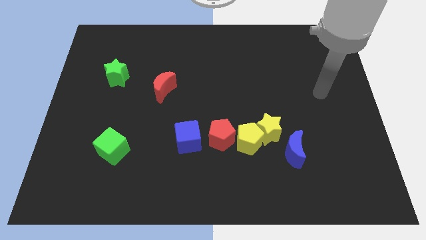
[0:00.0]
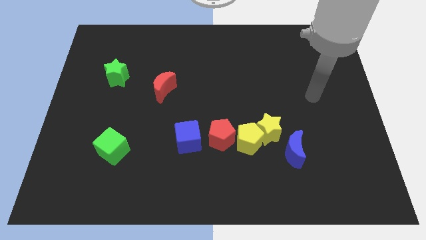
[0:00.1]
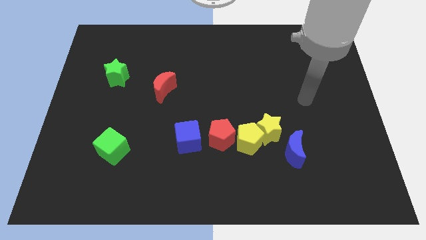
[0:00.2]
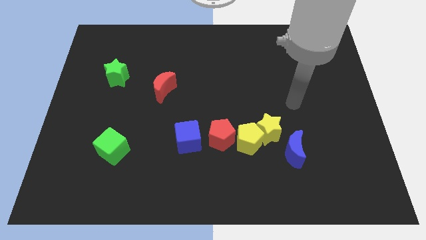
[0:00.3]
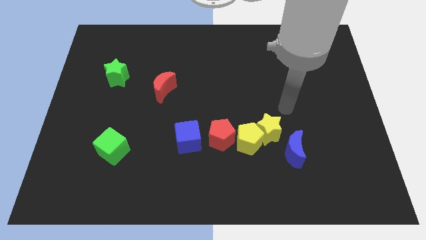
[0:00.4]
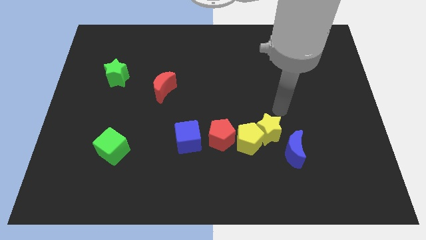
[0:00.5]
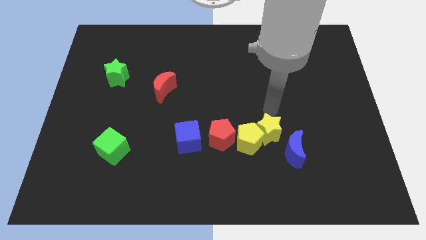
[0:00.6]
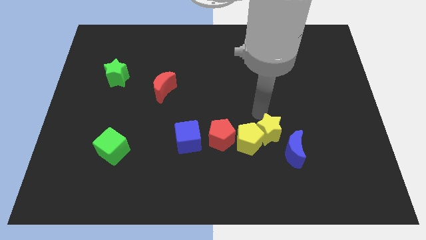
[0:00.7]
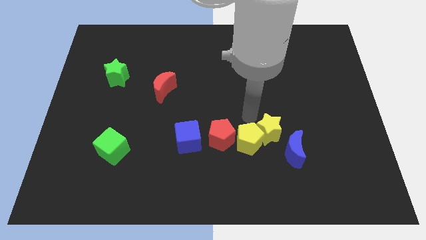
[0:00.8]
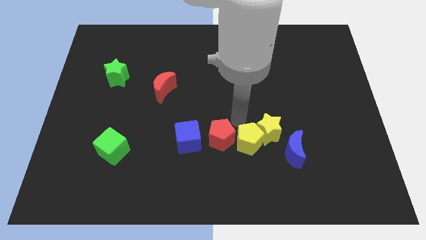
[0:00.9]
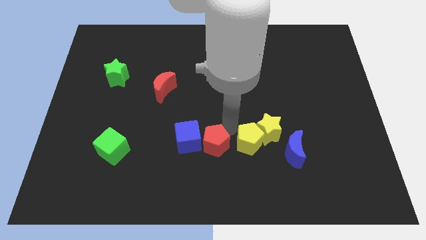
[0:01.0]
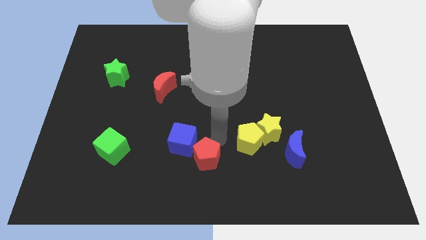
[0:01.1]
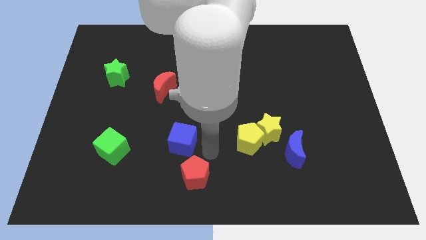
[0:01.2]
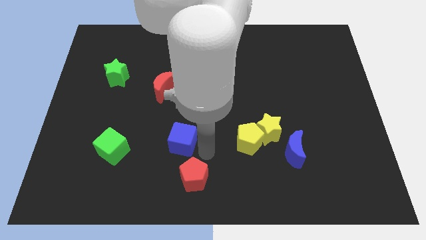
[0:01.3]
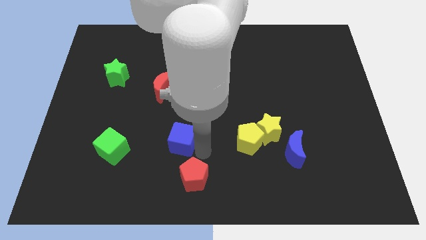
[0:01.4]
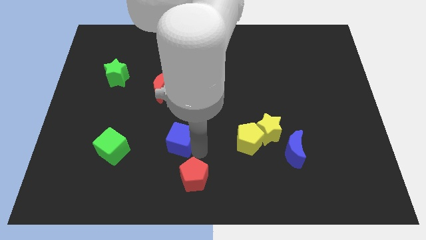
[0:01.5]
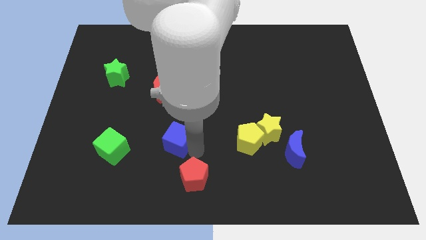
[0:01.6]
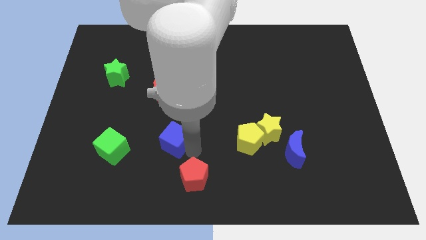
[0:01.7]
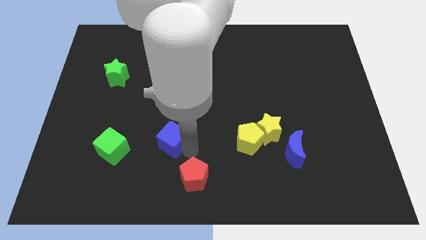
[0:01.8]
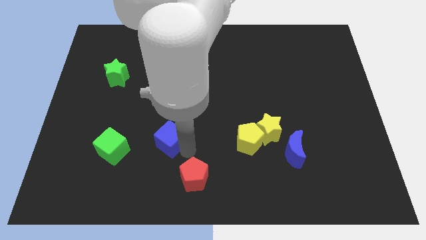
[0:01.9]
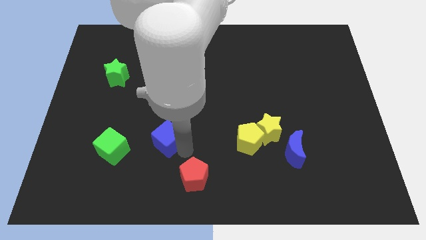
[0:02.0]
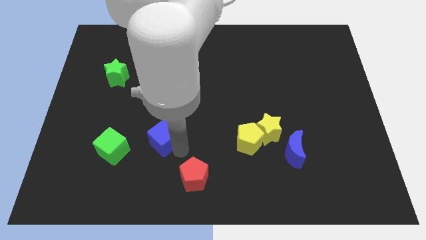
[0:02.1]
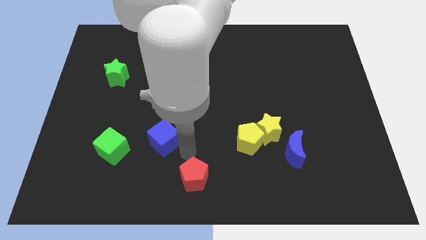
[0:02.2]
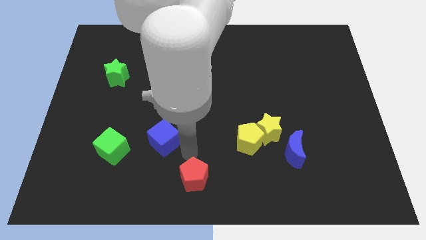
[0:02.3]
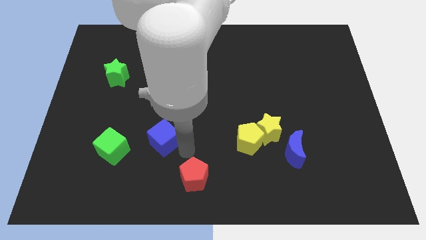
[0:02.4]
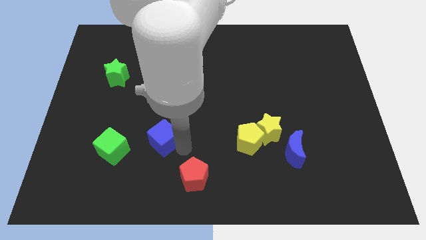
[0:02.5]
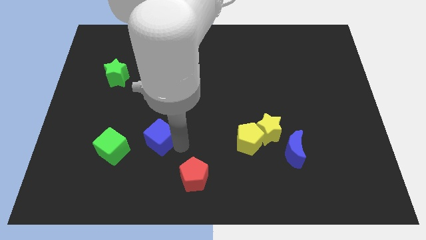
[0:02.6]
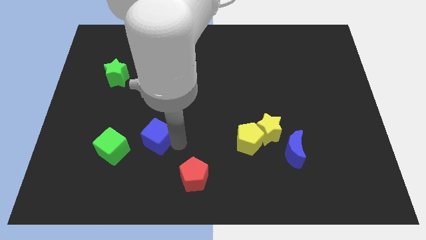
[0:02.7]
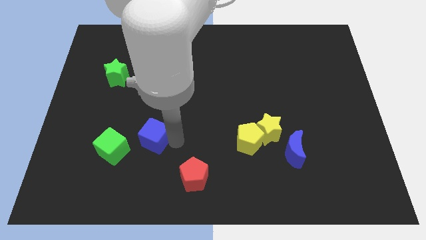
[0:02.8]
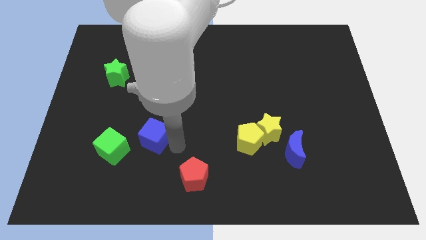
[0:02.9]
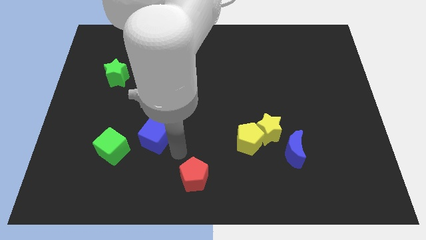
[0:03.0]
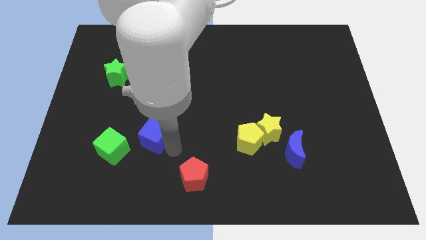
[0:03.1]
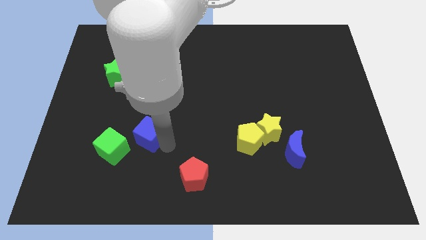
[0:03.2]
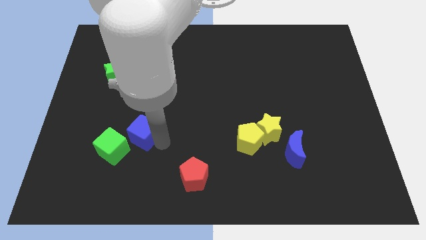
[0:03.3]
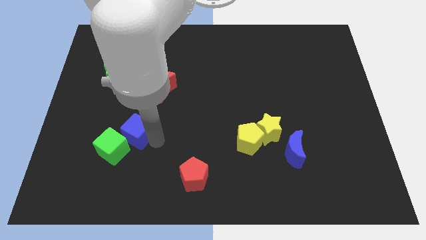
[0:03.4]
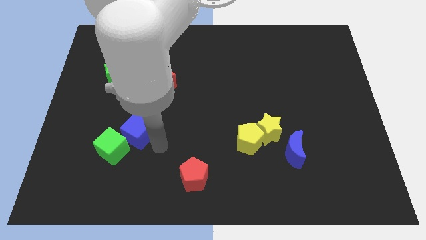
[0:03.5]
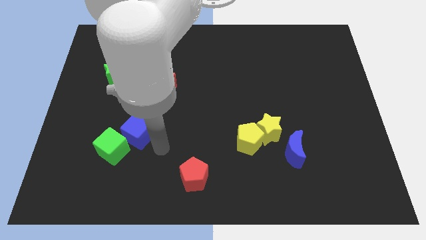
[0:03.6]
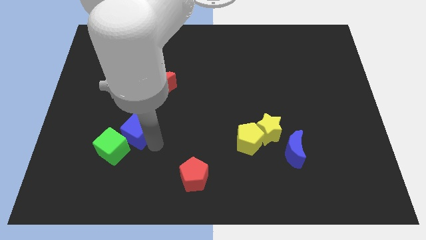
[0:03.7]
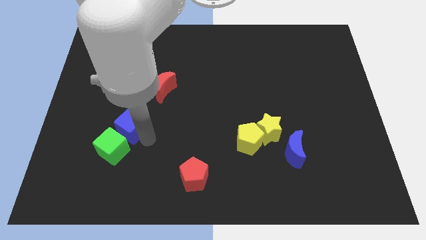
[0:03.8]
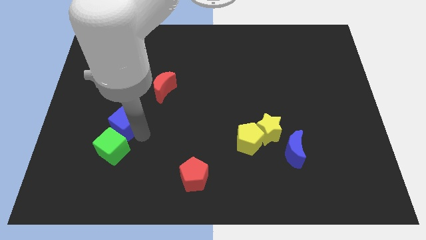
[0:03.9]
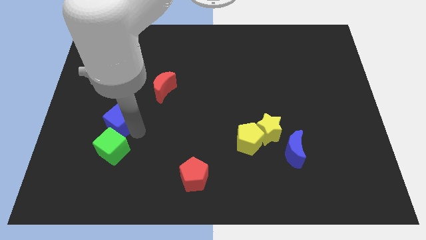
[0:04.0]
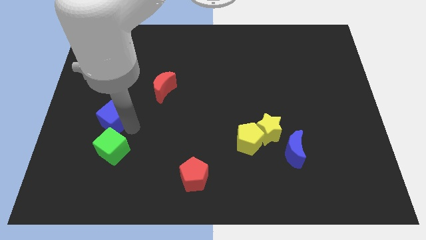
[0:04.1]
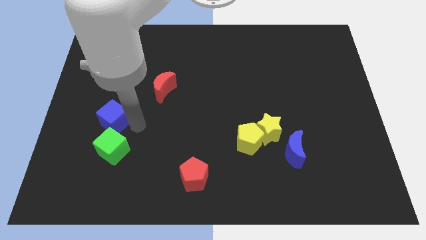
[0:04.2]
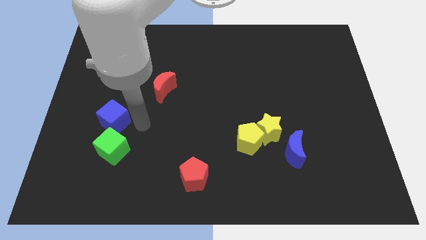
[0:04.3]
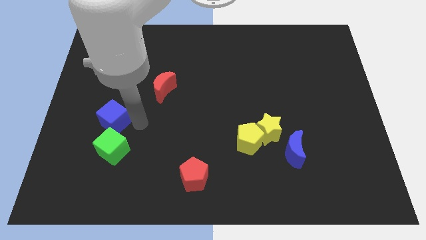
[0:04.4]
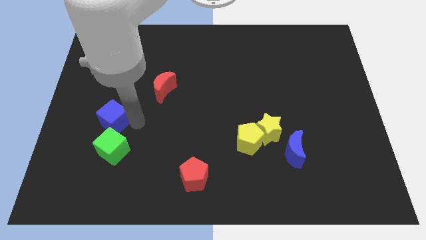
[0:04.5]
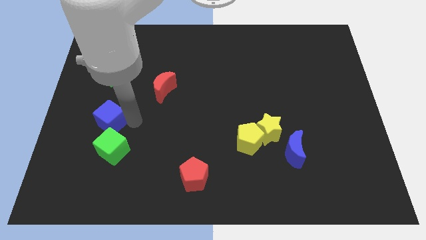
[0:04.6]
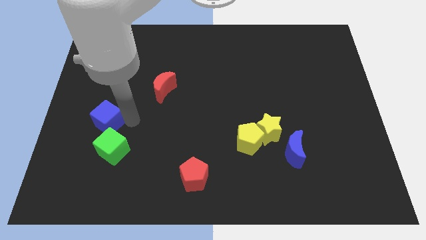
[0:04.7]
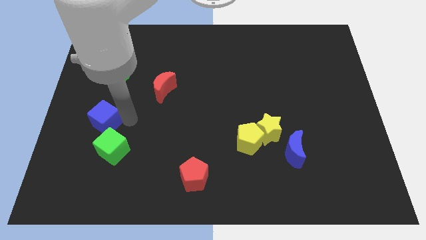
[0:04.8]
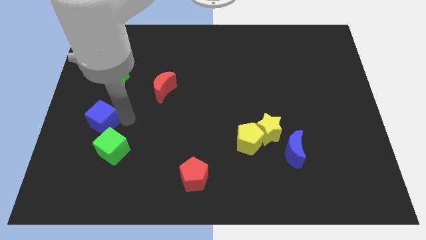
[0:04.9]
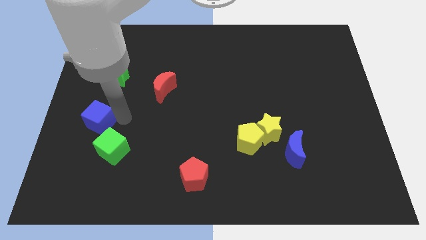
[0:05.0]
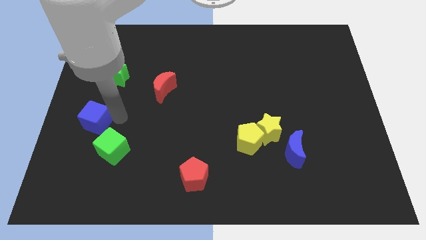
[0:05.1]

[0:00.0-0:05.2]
slide the blue cube to the center left

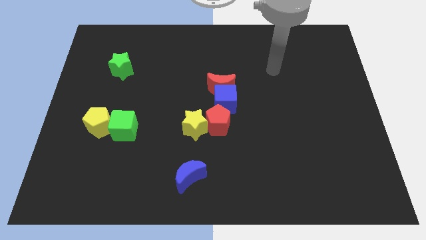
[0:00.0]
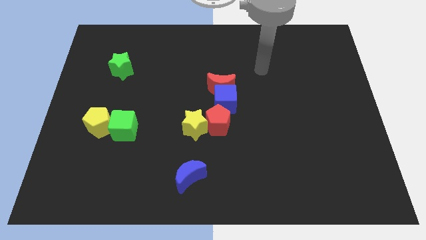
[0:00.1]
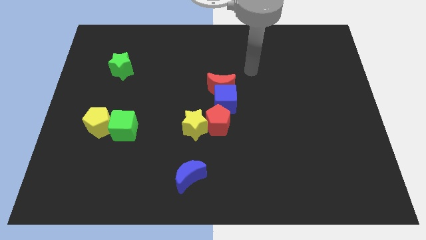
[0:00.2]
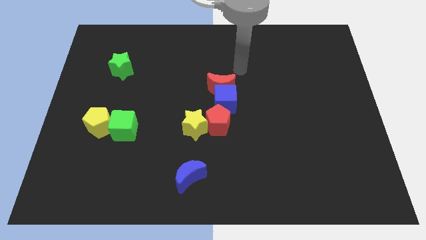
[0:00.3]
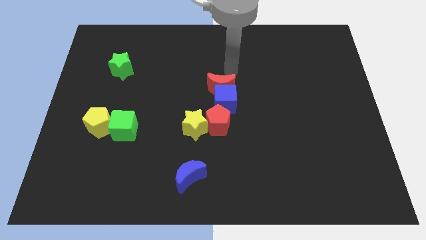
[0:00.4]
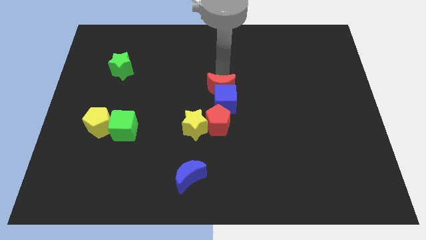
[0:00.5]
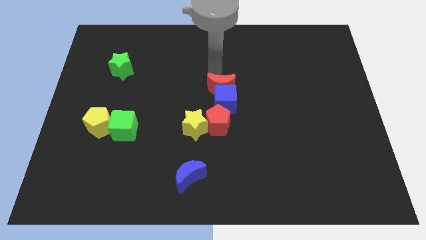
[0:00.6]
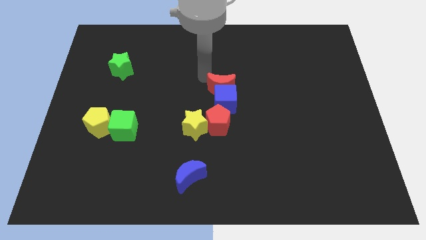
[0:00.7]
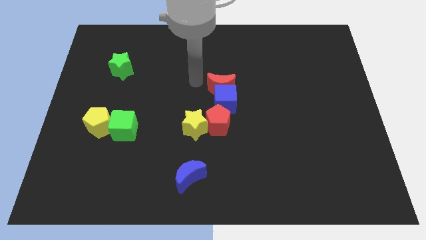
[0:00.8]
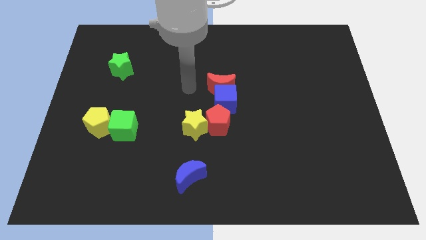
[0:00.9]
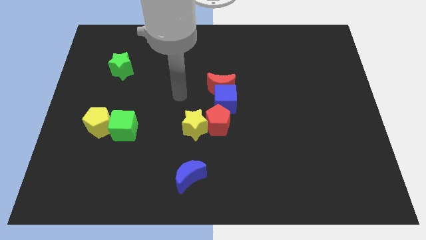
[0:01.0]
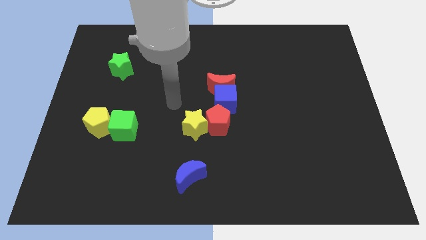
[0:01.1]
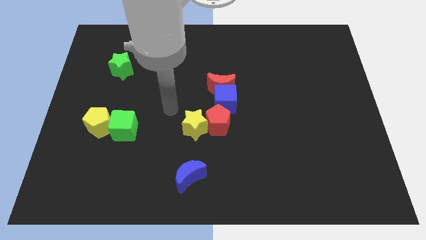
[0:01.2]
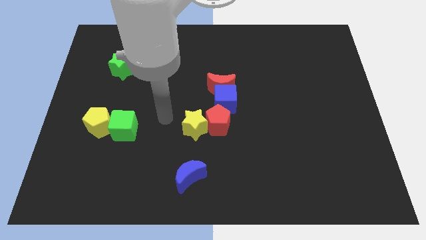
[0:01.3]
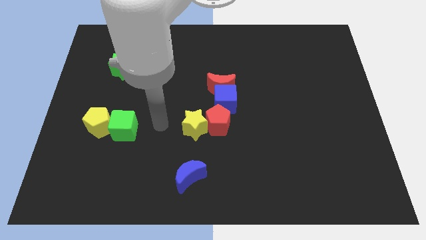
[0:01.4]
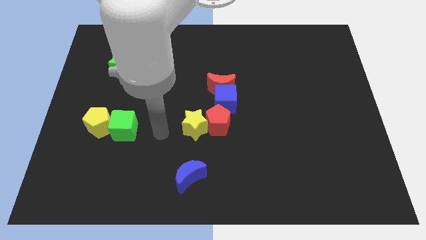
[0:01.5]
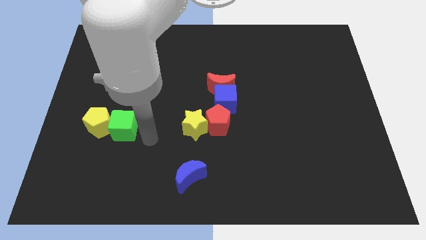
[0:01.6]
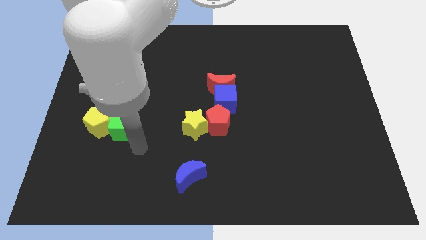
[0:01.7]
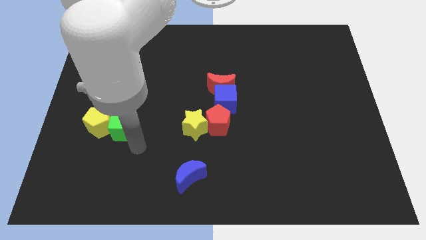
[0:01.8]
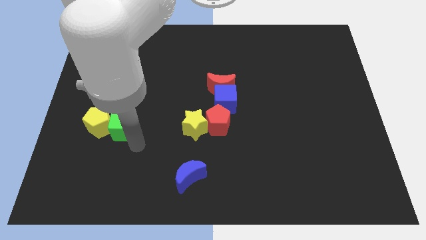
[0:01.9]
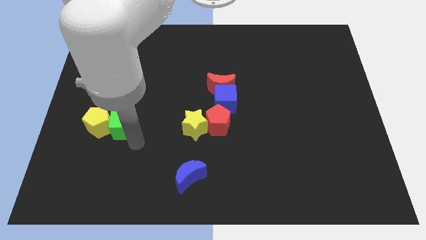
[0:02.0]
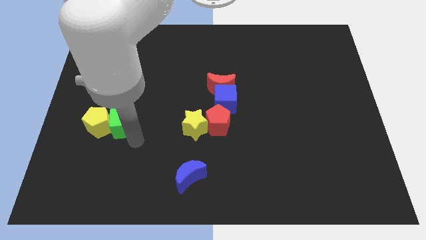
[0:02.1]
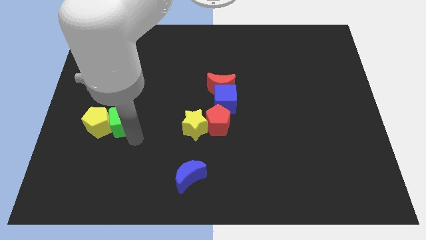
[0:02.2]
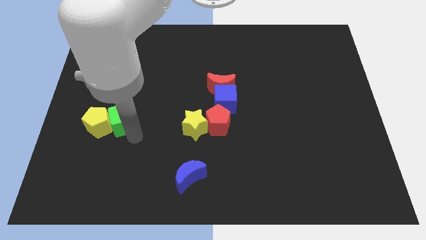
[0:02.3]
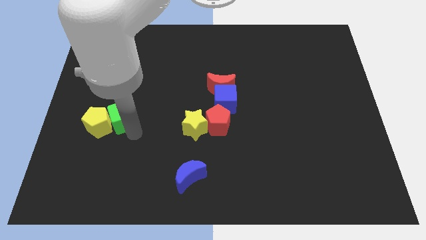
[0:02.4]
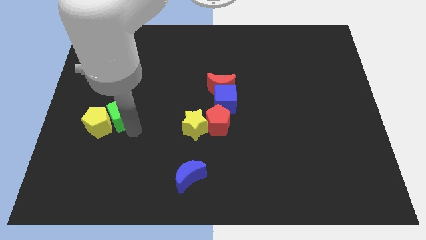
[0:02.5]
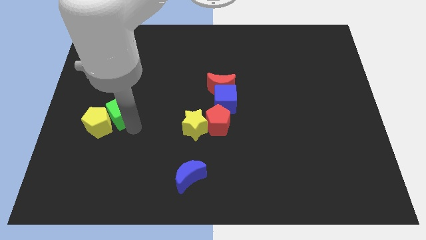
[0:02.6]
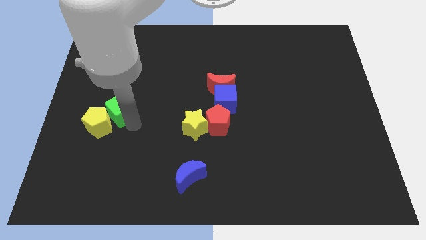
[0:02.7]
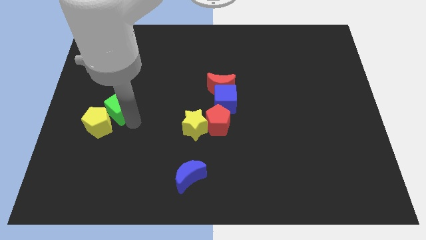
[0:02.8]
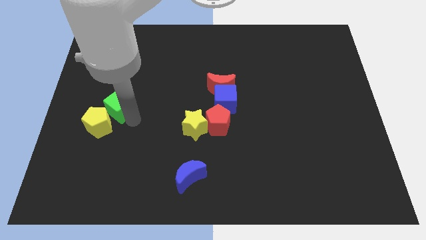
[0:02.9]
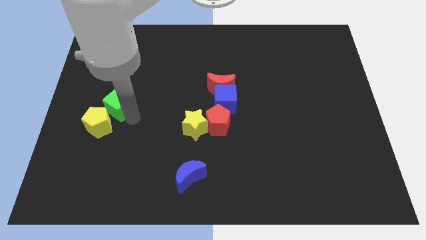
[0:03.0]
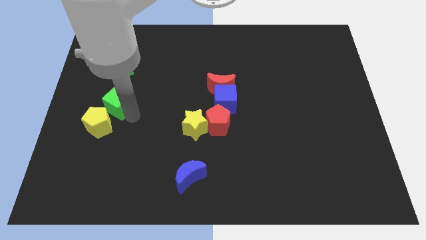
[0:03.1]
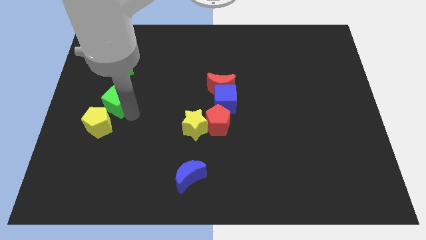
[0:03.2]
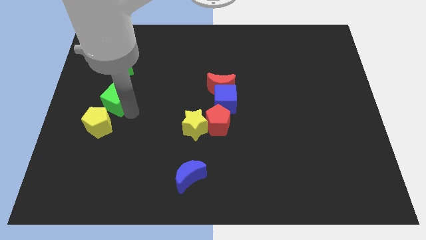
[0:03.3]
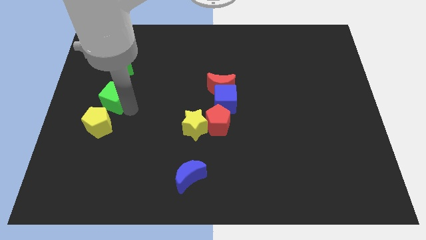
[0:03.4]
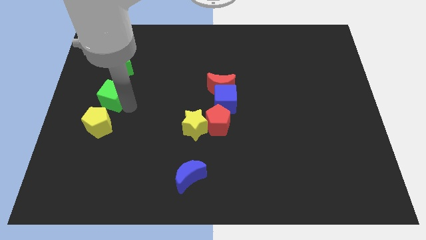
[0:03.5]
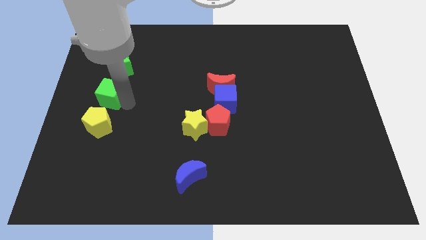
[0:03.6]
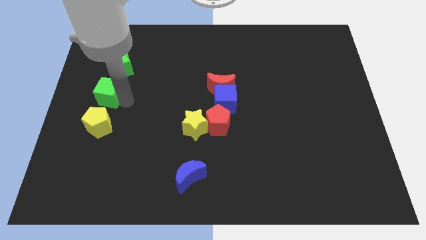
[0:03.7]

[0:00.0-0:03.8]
move the green cube to the left side of the board
